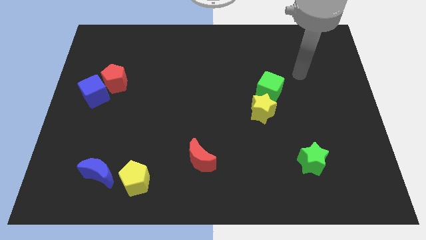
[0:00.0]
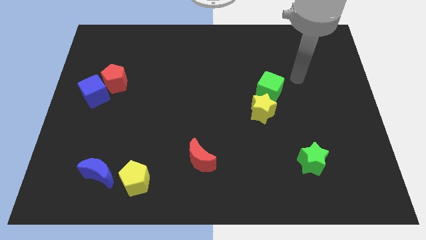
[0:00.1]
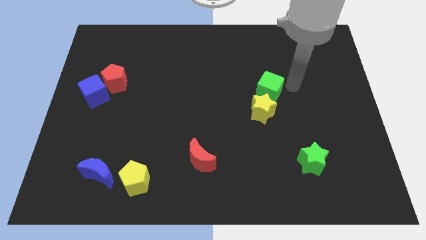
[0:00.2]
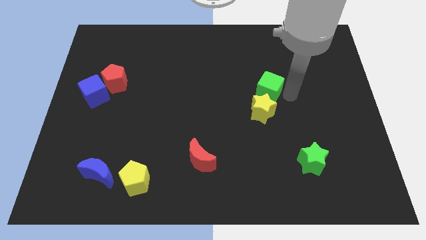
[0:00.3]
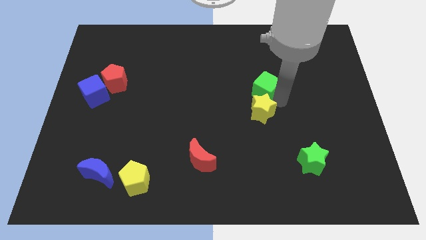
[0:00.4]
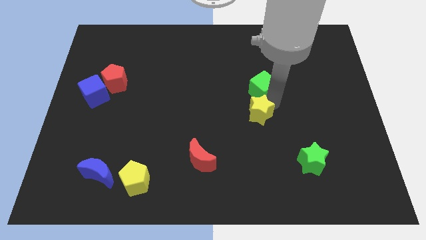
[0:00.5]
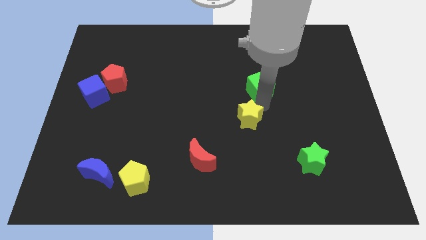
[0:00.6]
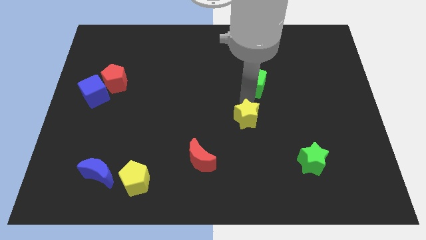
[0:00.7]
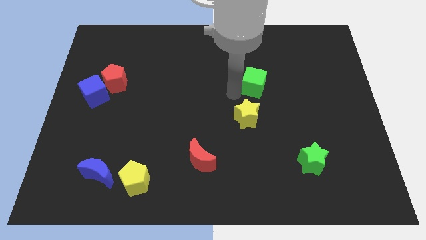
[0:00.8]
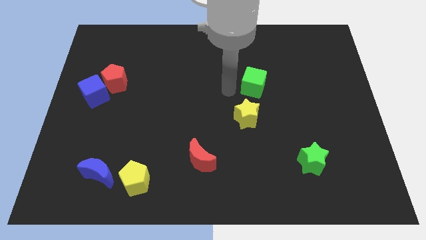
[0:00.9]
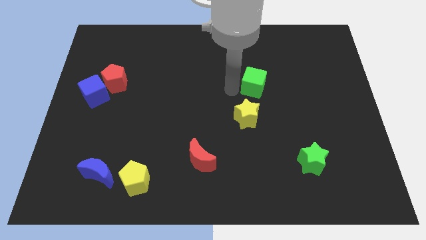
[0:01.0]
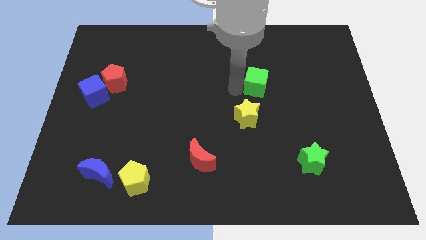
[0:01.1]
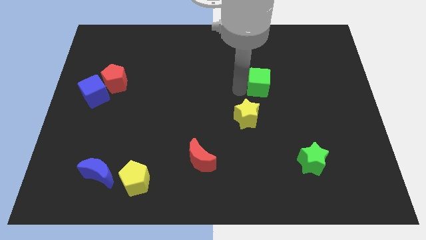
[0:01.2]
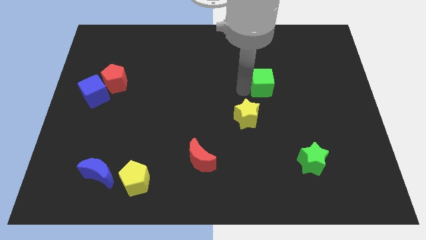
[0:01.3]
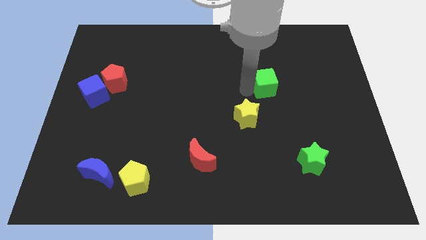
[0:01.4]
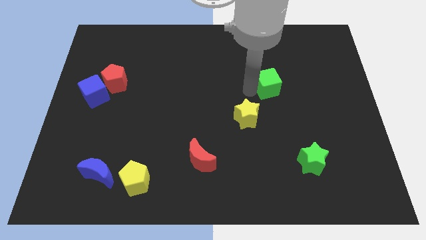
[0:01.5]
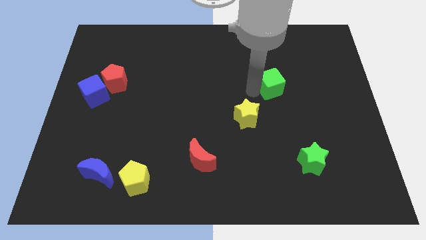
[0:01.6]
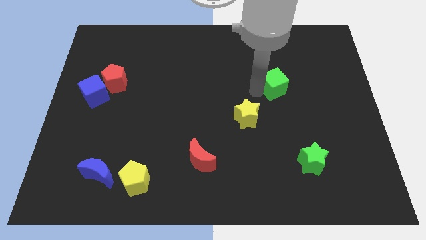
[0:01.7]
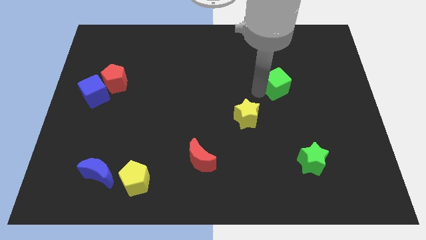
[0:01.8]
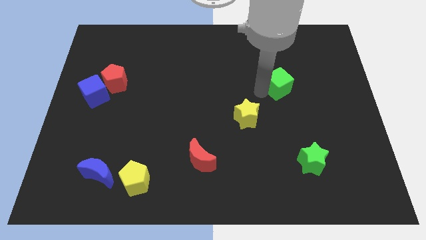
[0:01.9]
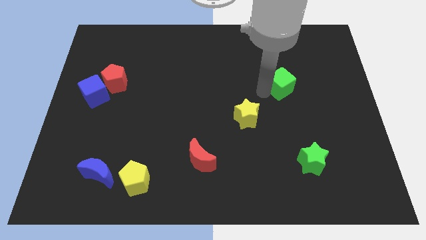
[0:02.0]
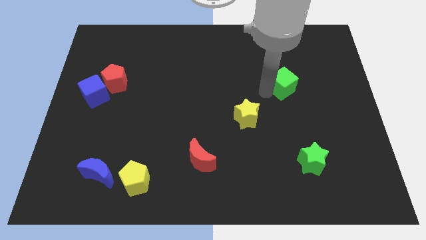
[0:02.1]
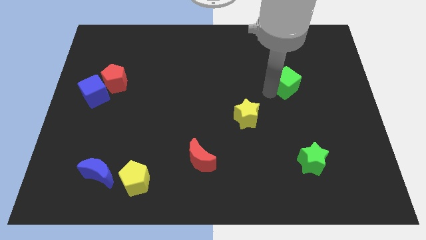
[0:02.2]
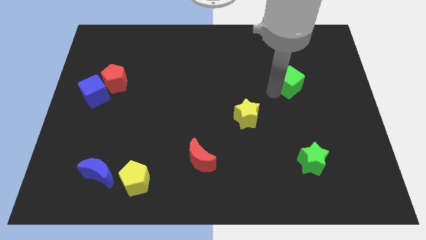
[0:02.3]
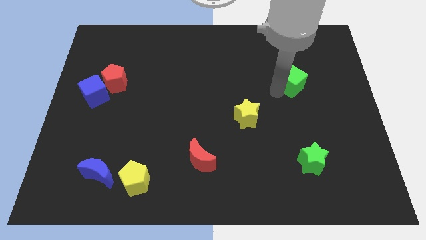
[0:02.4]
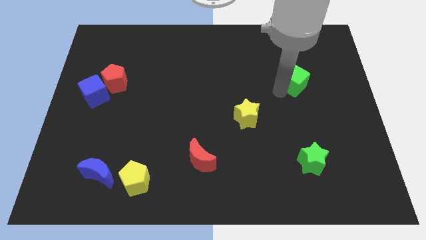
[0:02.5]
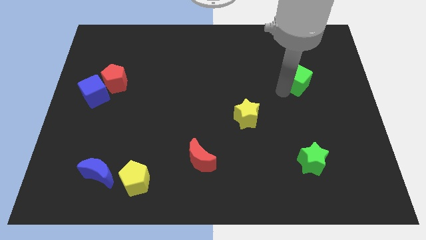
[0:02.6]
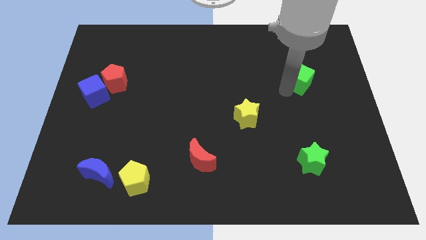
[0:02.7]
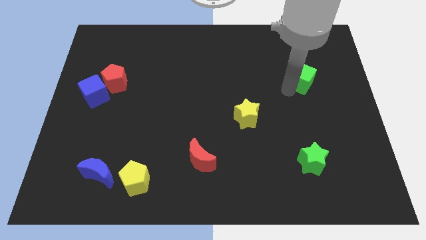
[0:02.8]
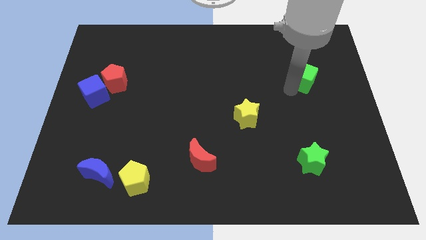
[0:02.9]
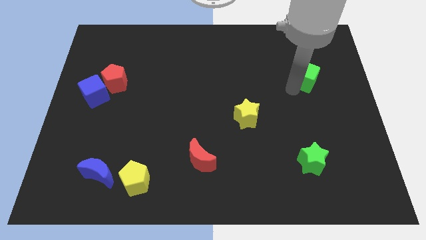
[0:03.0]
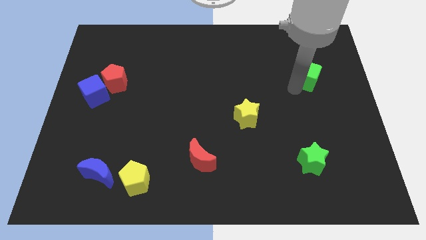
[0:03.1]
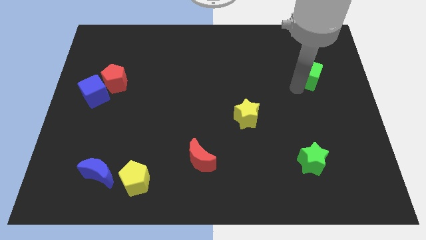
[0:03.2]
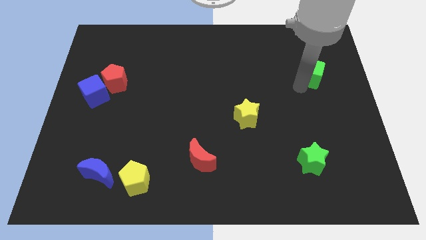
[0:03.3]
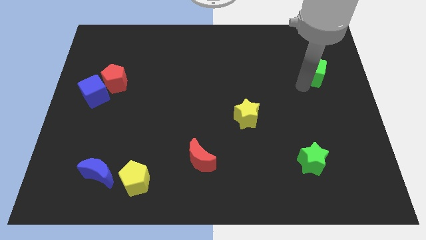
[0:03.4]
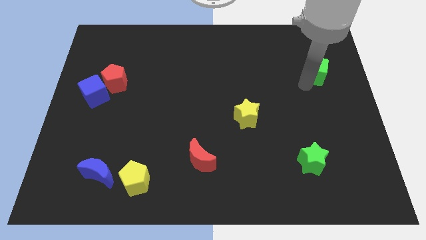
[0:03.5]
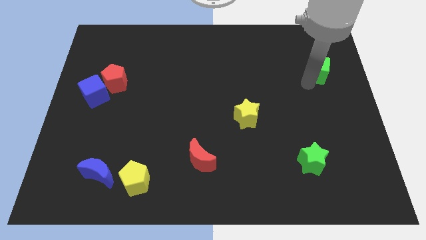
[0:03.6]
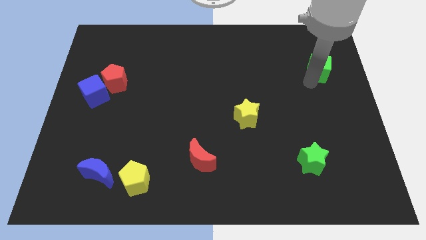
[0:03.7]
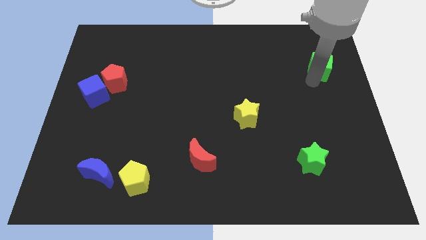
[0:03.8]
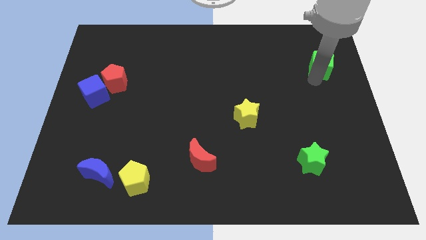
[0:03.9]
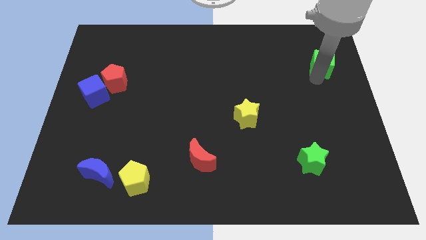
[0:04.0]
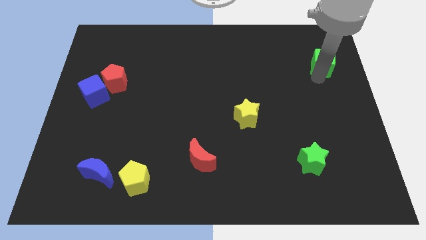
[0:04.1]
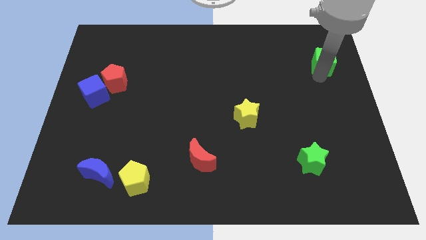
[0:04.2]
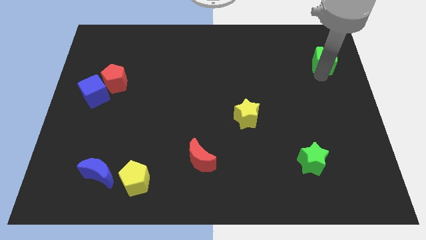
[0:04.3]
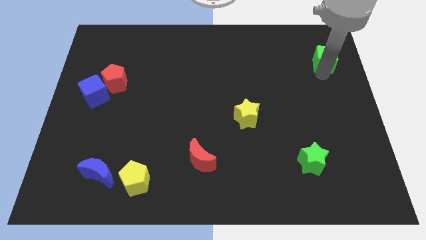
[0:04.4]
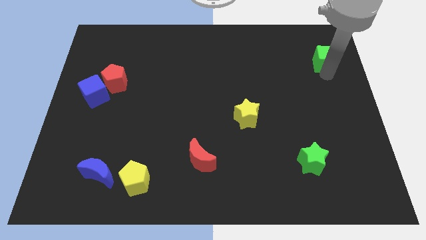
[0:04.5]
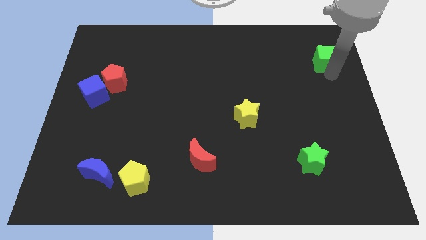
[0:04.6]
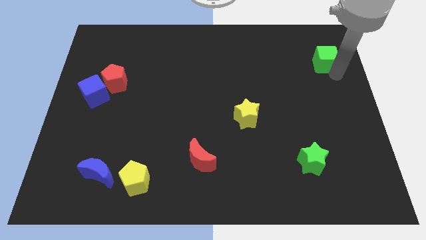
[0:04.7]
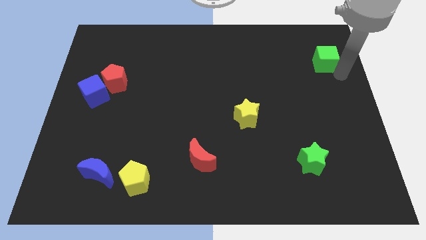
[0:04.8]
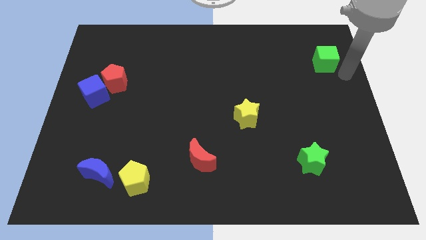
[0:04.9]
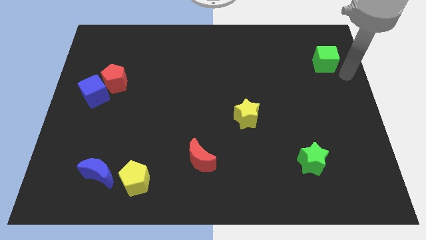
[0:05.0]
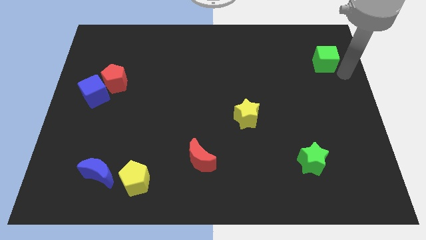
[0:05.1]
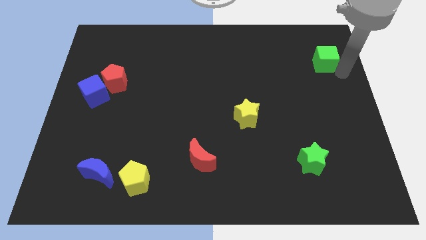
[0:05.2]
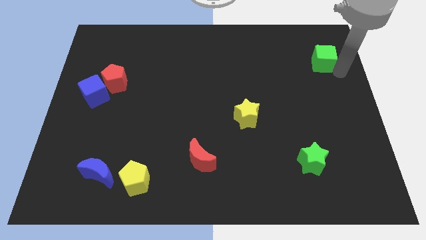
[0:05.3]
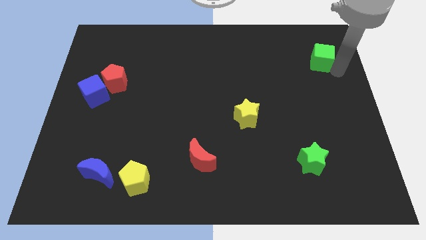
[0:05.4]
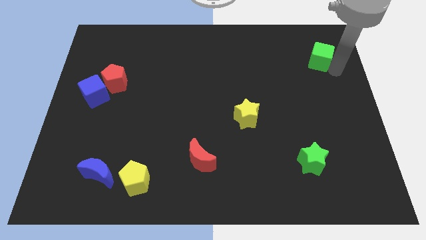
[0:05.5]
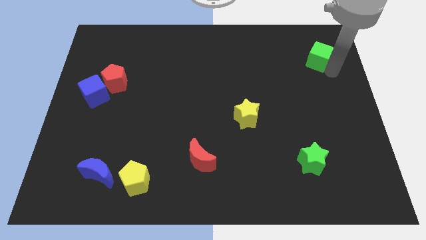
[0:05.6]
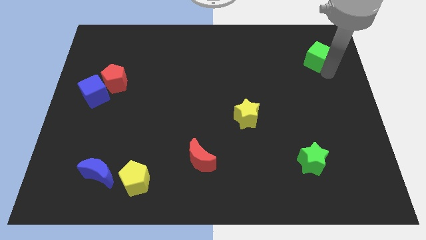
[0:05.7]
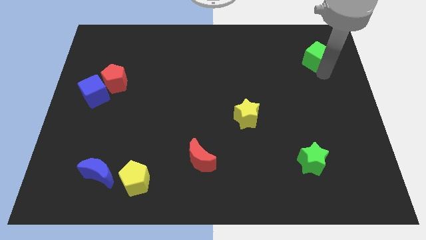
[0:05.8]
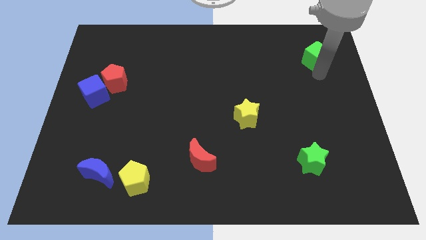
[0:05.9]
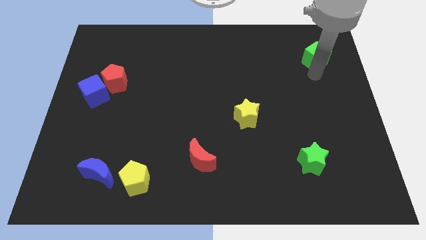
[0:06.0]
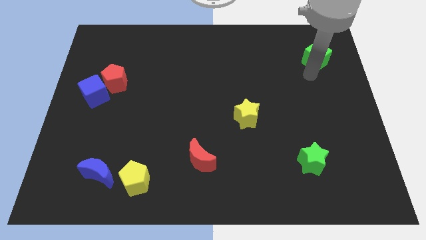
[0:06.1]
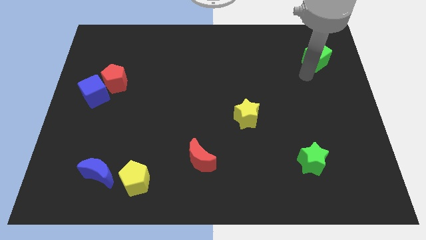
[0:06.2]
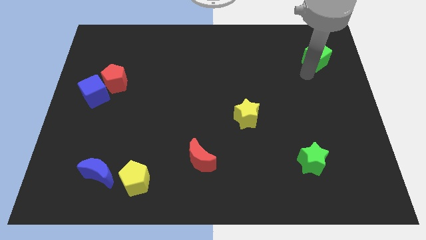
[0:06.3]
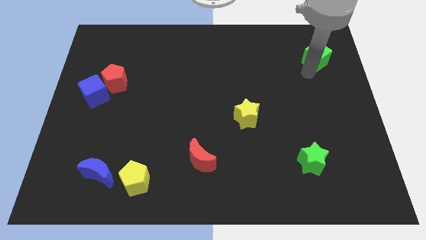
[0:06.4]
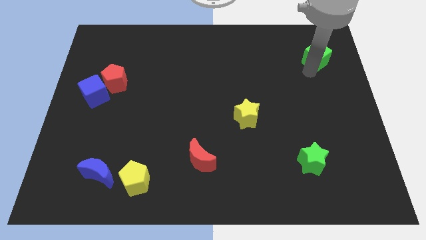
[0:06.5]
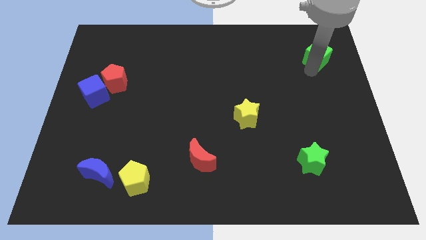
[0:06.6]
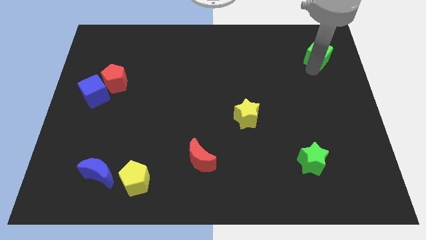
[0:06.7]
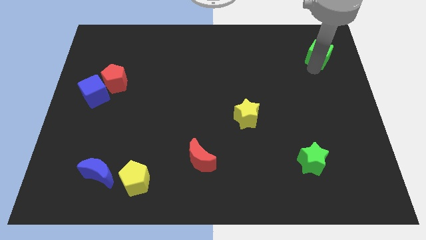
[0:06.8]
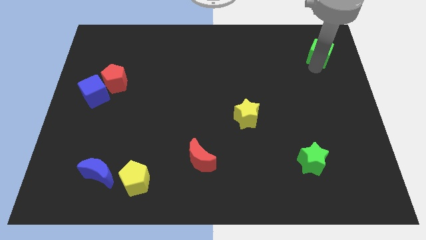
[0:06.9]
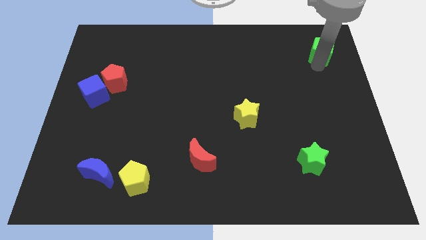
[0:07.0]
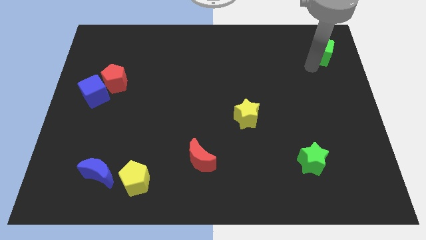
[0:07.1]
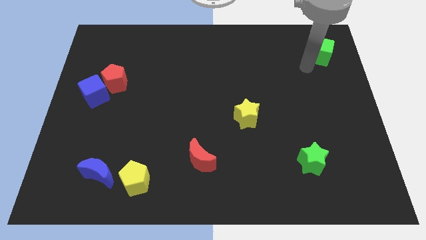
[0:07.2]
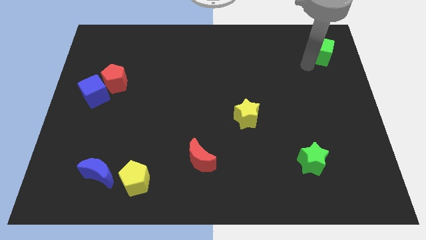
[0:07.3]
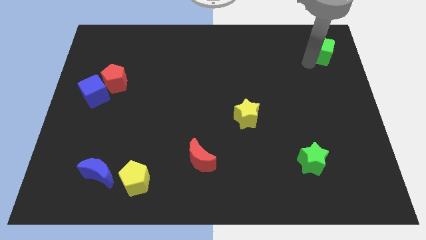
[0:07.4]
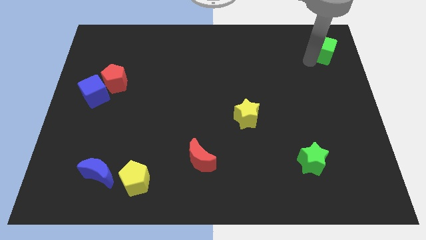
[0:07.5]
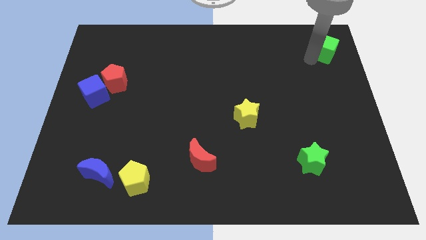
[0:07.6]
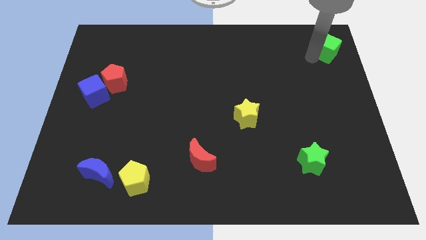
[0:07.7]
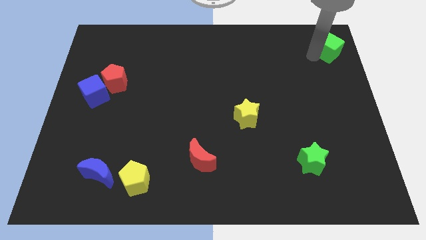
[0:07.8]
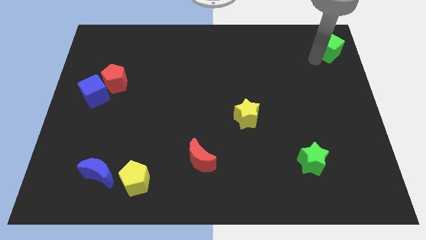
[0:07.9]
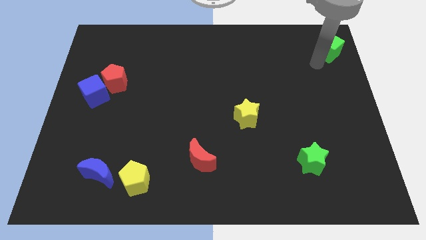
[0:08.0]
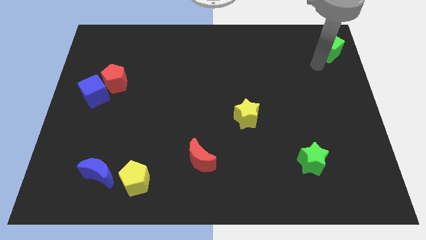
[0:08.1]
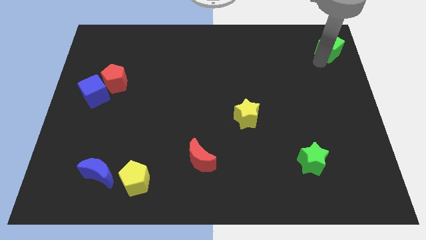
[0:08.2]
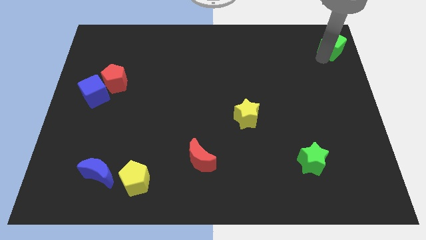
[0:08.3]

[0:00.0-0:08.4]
slide the green cube to the upper right corner
